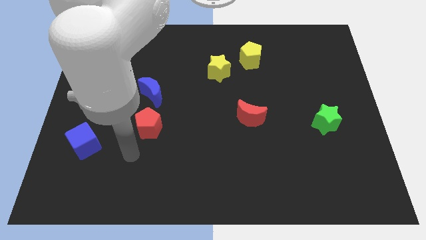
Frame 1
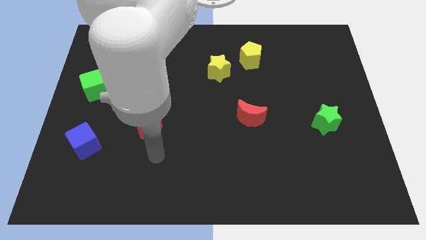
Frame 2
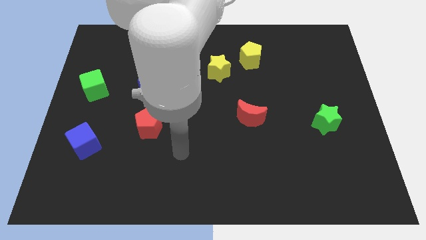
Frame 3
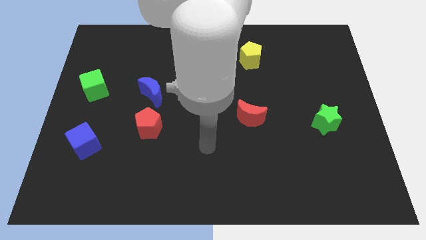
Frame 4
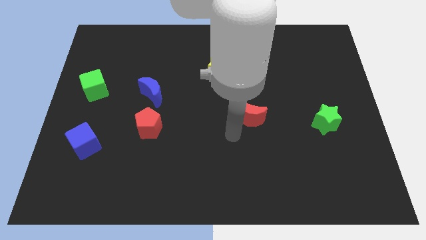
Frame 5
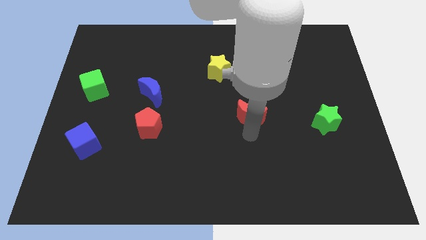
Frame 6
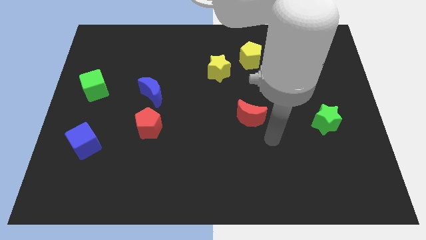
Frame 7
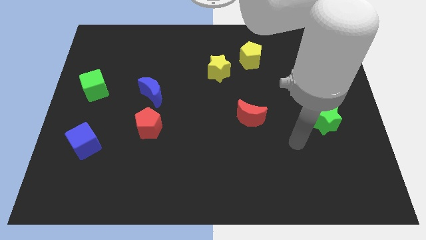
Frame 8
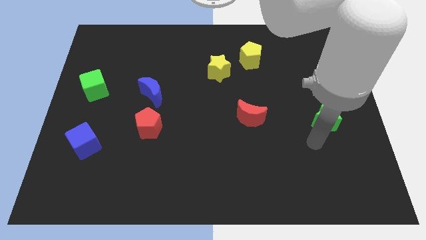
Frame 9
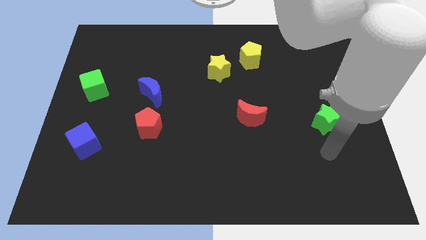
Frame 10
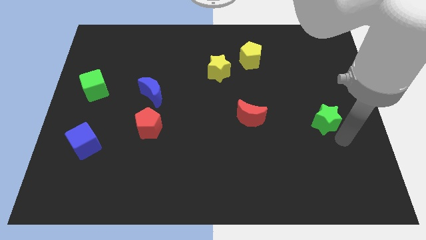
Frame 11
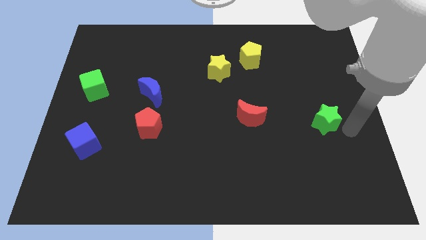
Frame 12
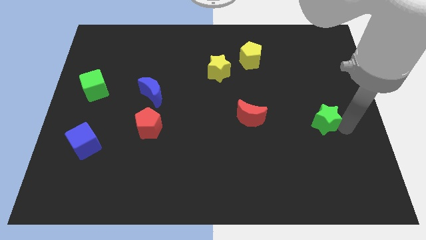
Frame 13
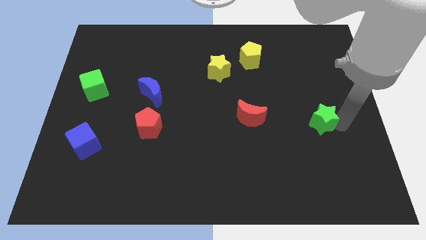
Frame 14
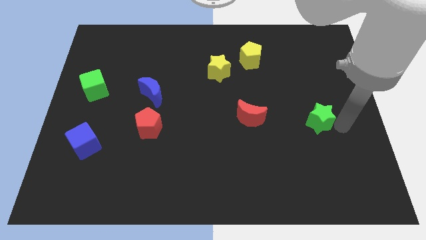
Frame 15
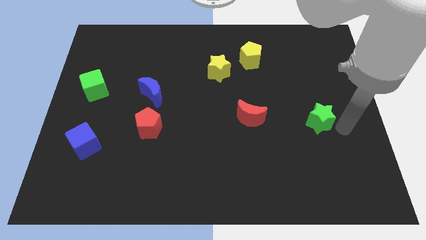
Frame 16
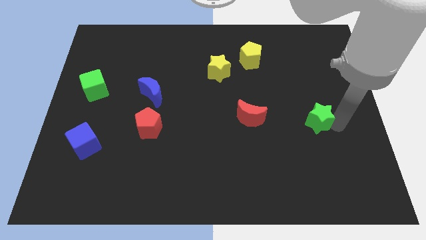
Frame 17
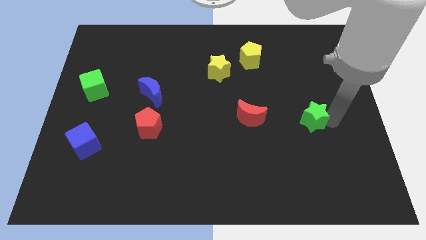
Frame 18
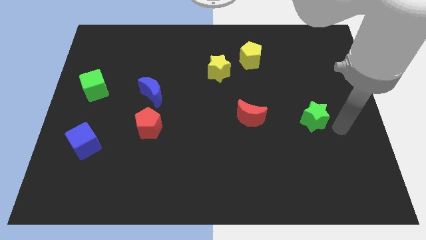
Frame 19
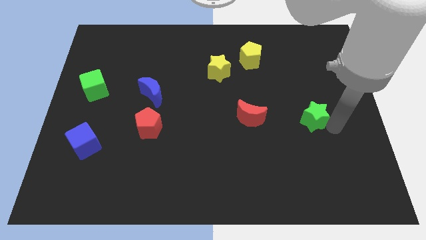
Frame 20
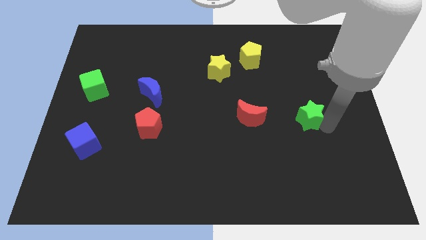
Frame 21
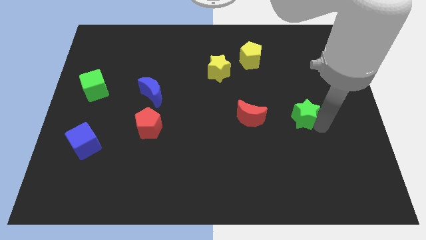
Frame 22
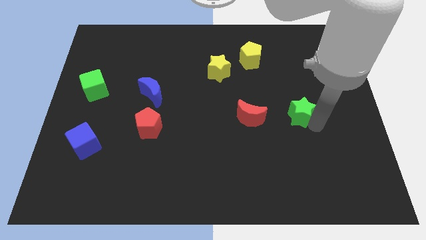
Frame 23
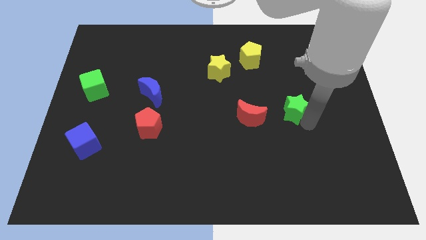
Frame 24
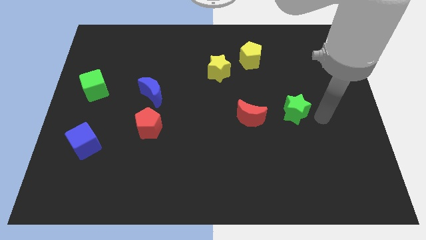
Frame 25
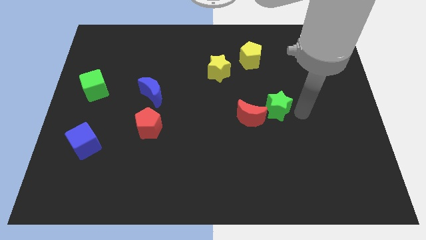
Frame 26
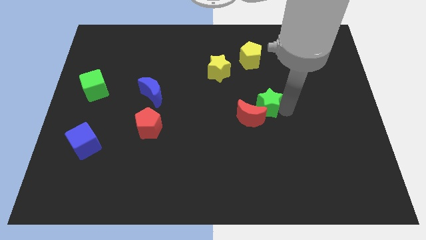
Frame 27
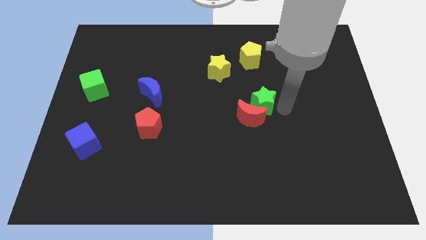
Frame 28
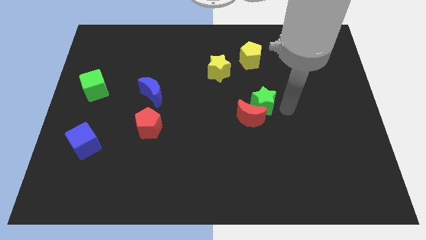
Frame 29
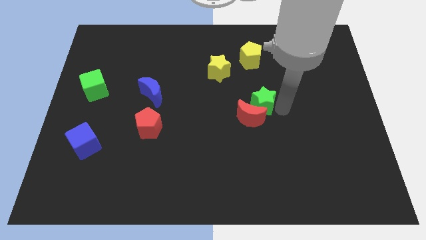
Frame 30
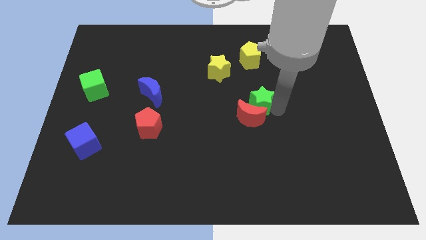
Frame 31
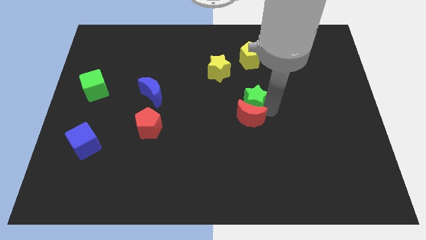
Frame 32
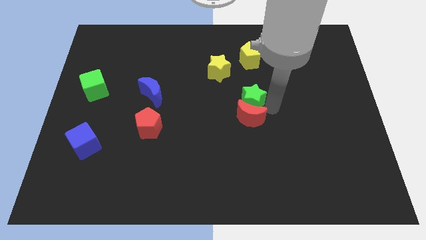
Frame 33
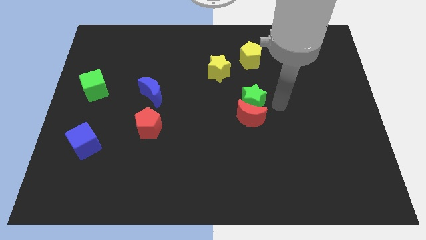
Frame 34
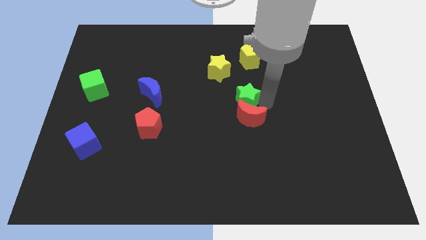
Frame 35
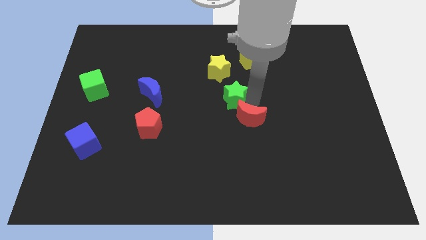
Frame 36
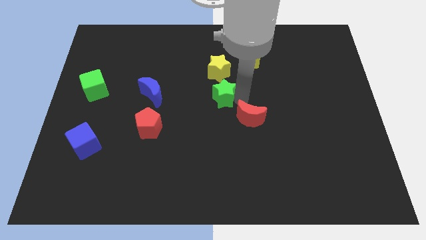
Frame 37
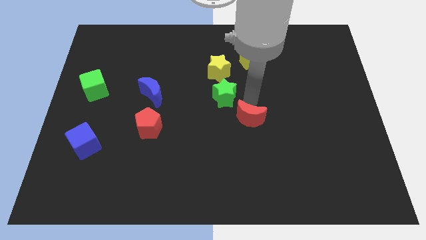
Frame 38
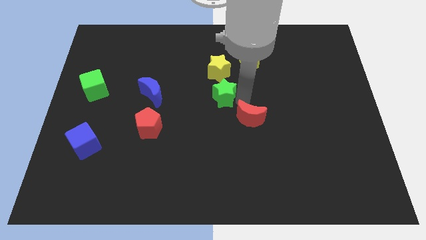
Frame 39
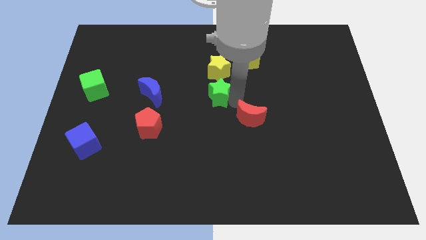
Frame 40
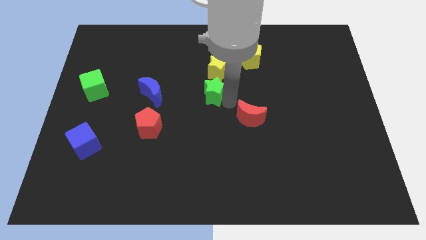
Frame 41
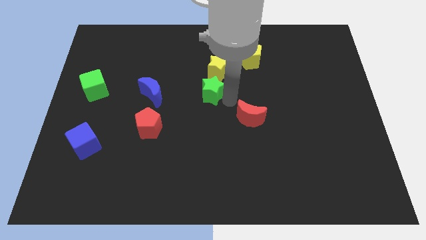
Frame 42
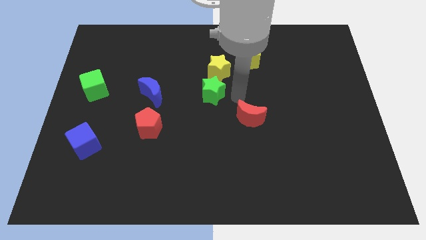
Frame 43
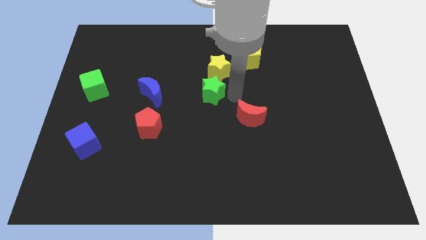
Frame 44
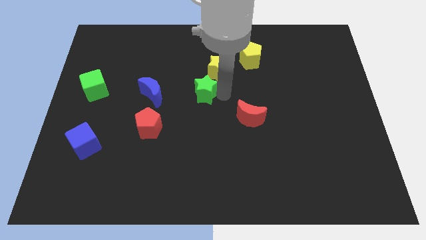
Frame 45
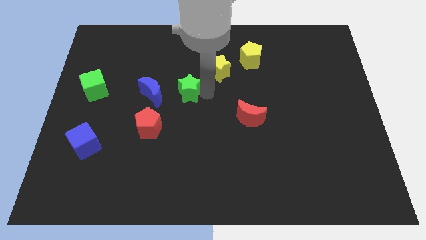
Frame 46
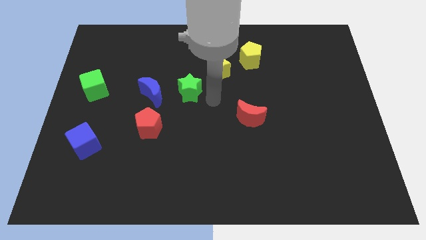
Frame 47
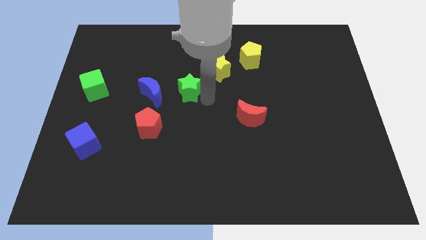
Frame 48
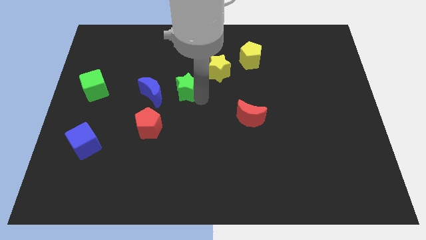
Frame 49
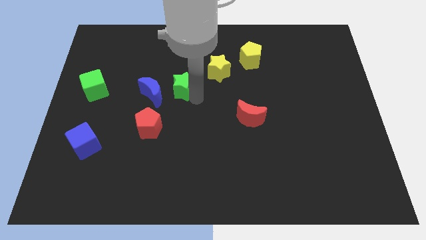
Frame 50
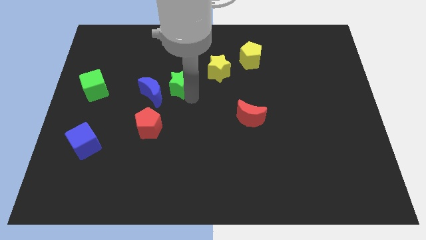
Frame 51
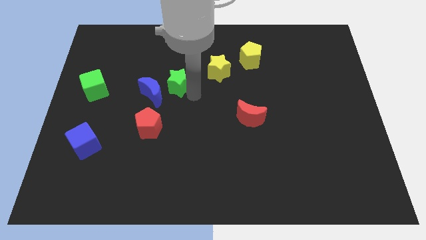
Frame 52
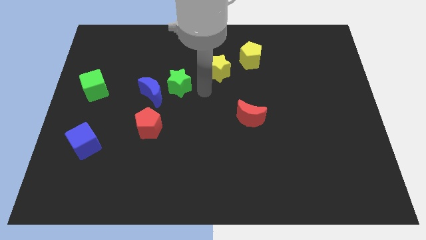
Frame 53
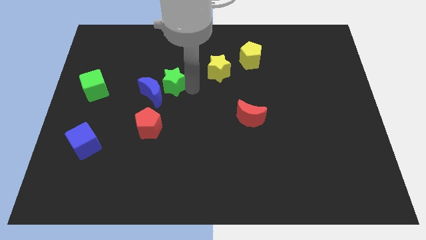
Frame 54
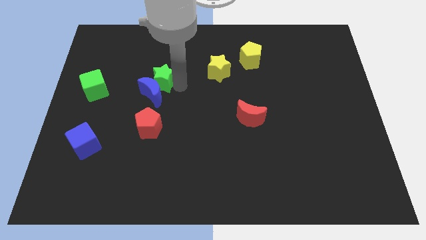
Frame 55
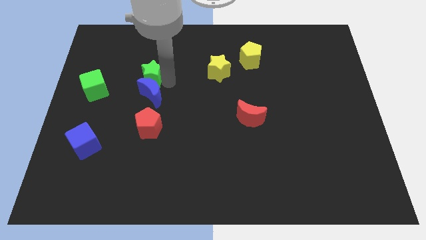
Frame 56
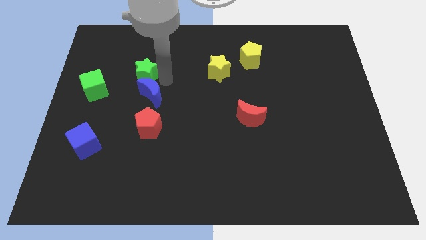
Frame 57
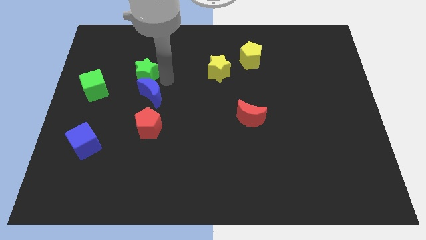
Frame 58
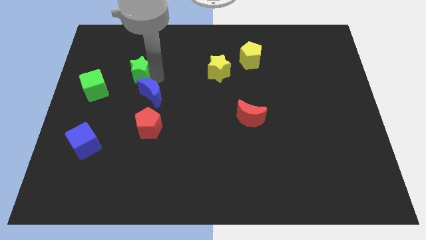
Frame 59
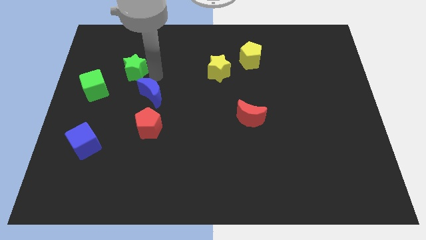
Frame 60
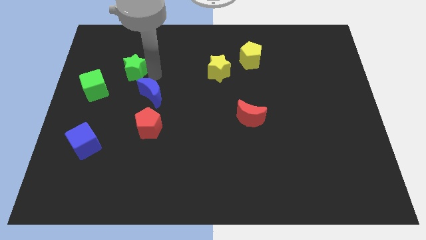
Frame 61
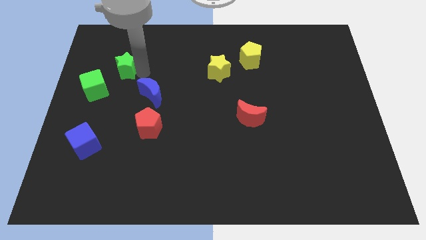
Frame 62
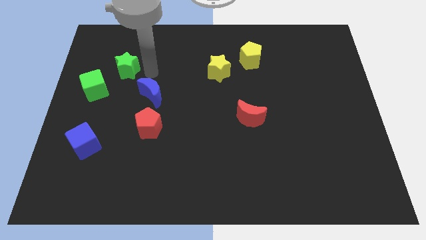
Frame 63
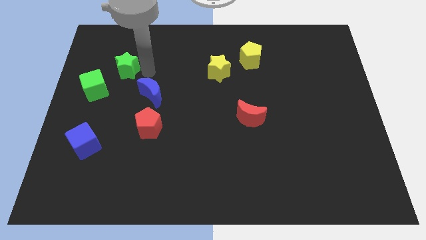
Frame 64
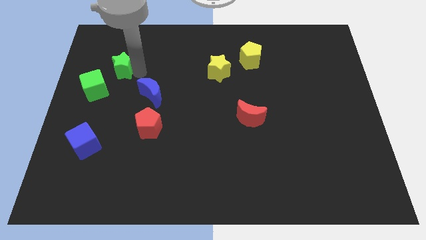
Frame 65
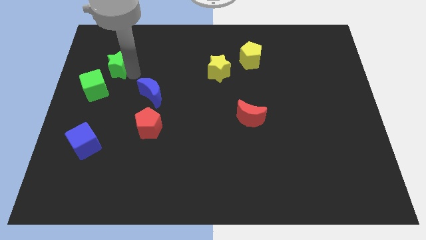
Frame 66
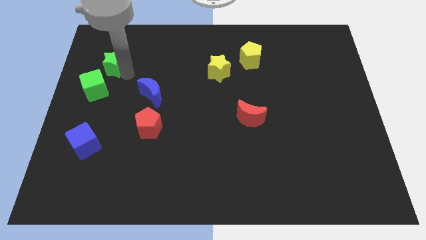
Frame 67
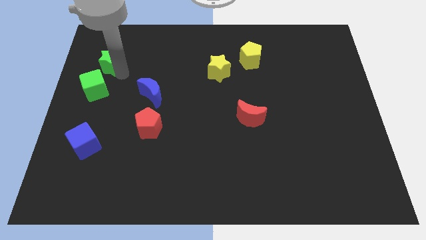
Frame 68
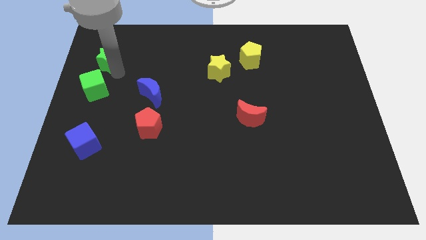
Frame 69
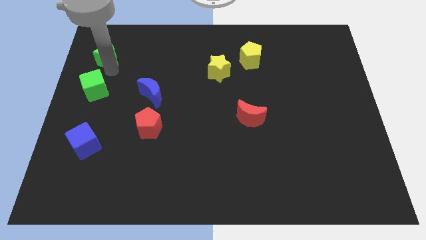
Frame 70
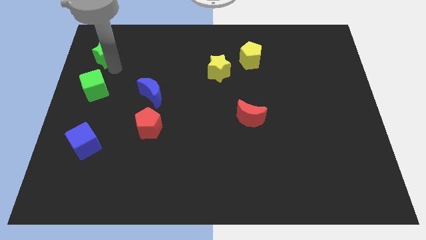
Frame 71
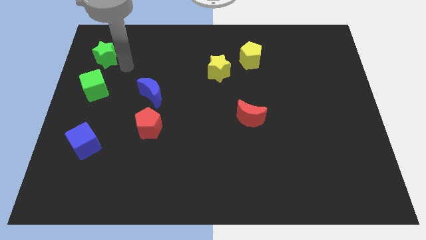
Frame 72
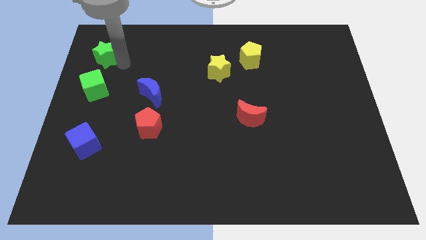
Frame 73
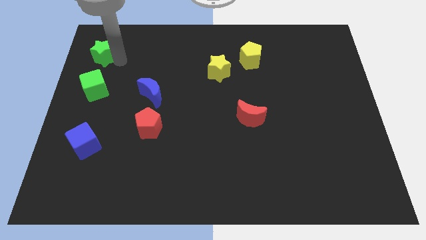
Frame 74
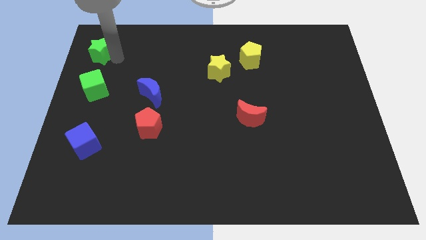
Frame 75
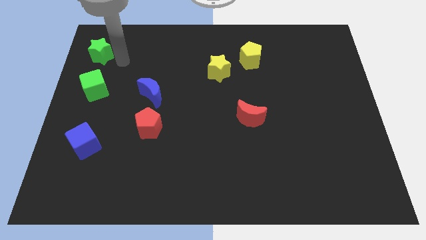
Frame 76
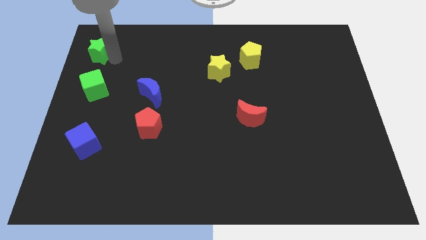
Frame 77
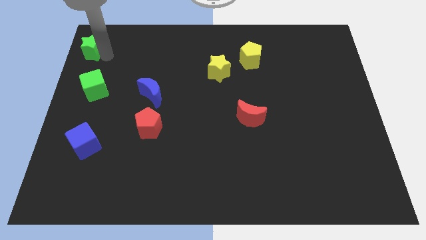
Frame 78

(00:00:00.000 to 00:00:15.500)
push the green star to the upper left corner
